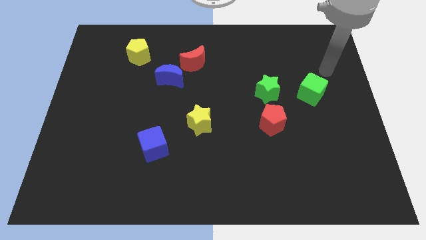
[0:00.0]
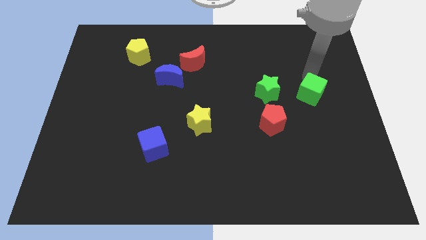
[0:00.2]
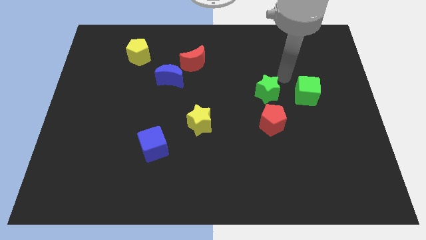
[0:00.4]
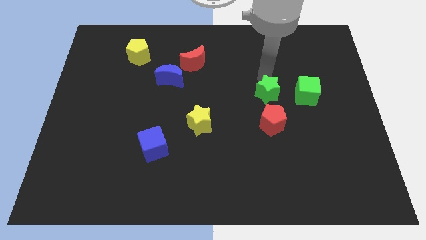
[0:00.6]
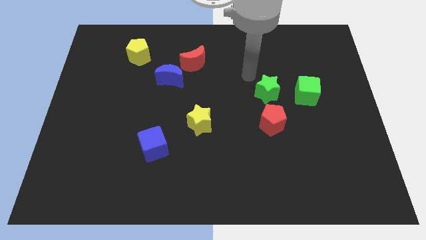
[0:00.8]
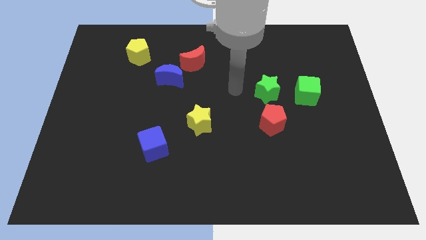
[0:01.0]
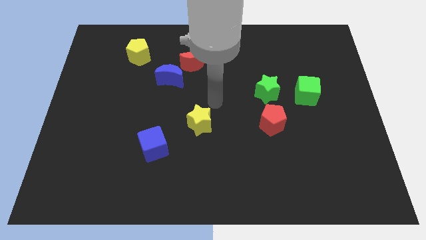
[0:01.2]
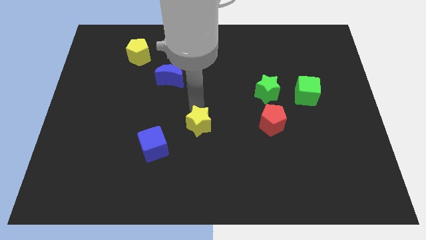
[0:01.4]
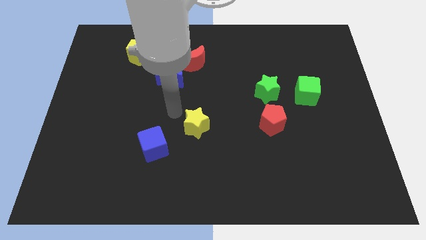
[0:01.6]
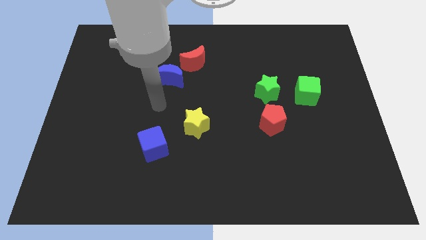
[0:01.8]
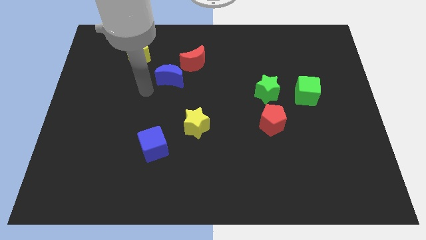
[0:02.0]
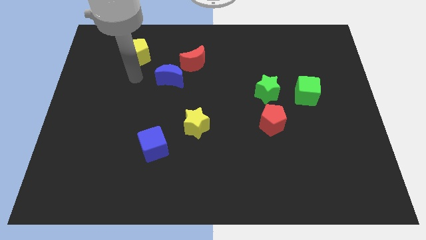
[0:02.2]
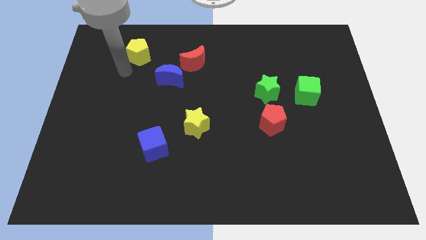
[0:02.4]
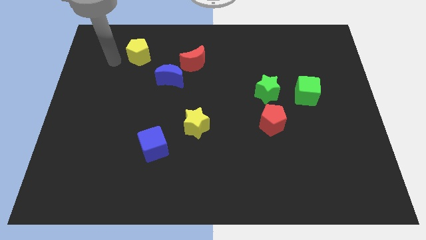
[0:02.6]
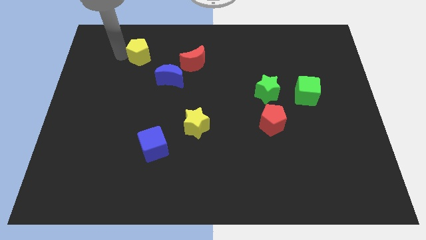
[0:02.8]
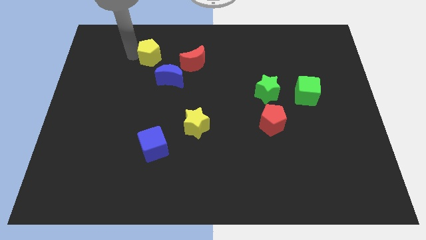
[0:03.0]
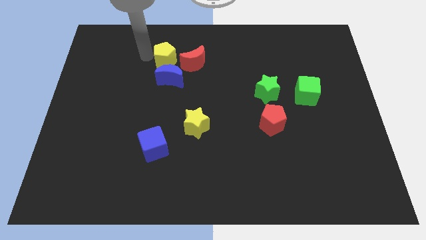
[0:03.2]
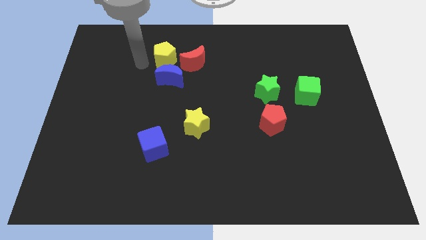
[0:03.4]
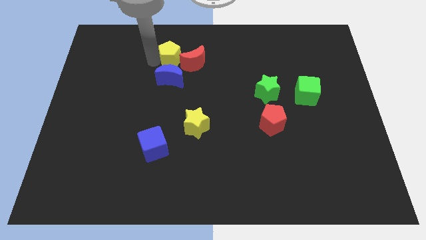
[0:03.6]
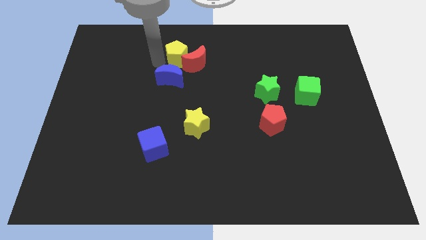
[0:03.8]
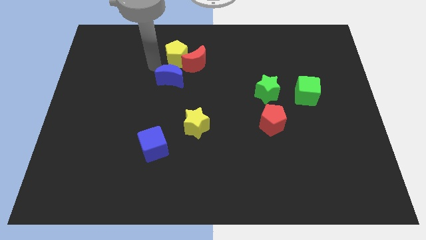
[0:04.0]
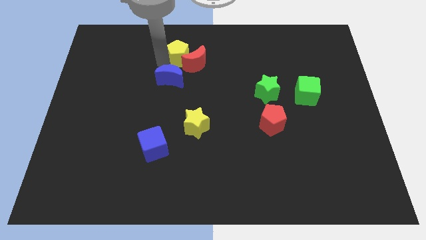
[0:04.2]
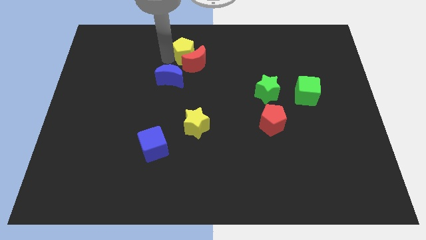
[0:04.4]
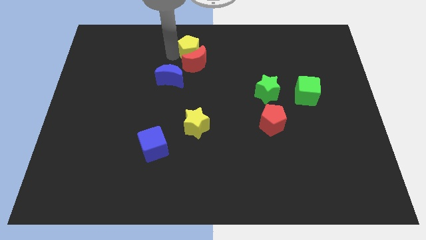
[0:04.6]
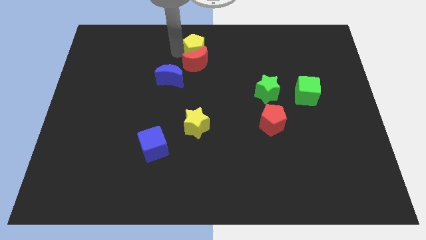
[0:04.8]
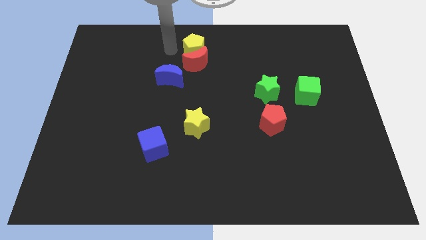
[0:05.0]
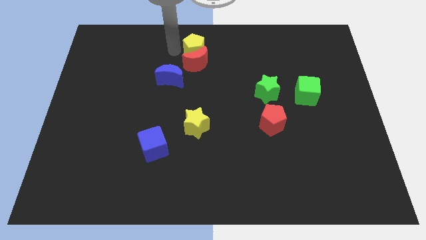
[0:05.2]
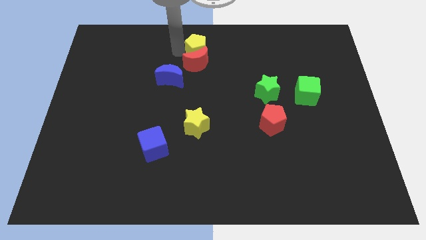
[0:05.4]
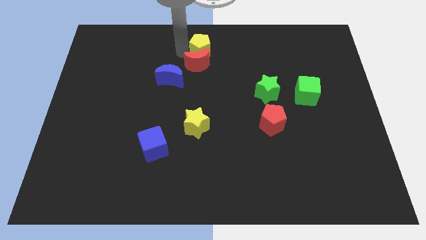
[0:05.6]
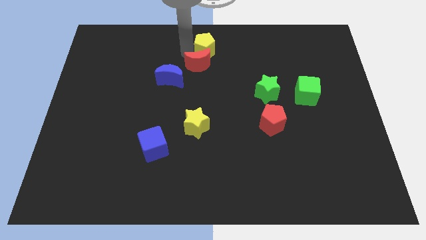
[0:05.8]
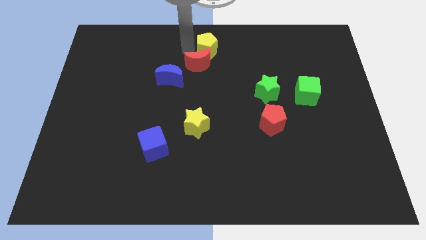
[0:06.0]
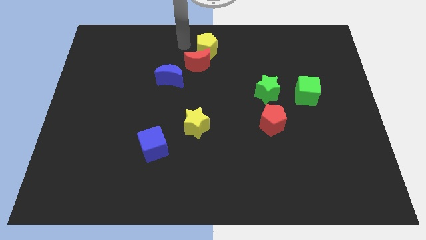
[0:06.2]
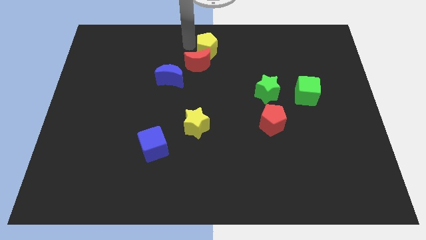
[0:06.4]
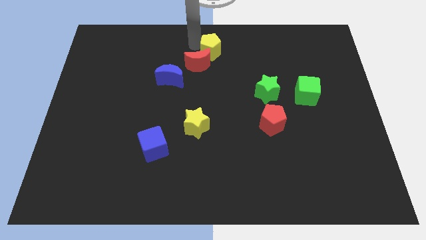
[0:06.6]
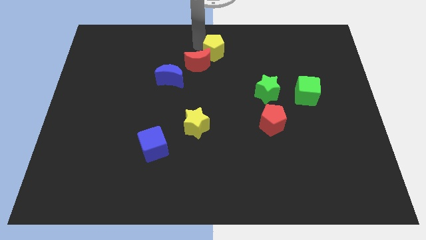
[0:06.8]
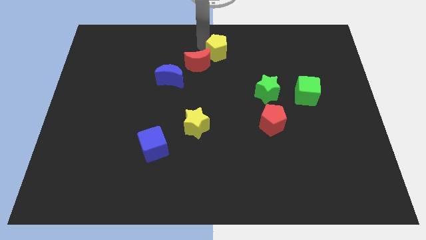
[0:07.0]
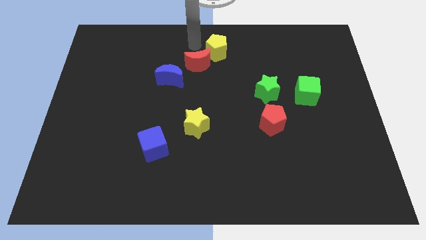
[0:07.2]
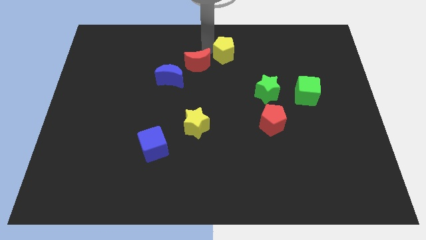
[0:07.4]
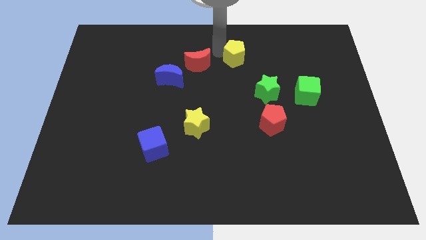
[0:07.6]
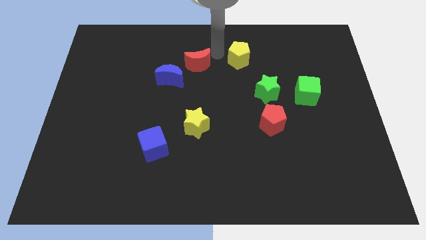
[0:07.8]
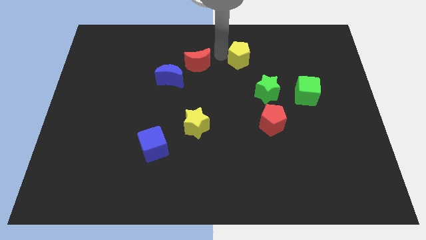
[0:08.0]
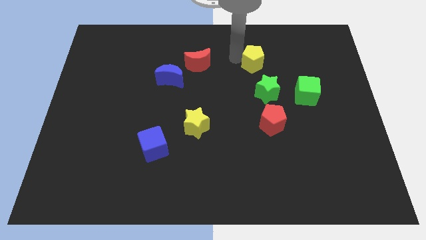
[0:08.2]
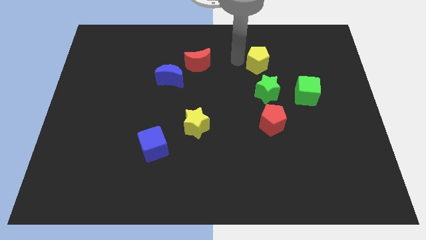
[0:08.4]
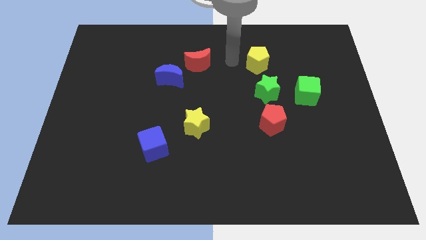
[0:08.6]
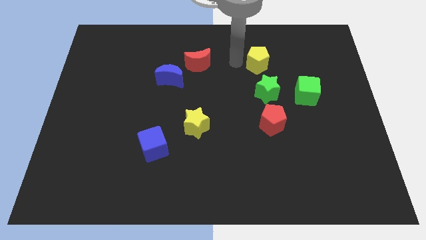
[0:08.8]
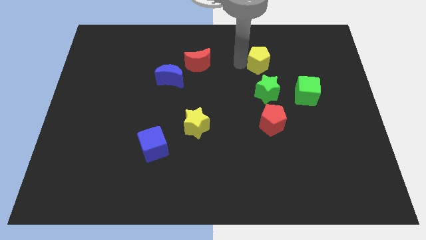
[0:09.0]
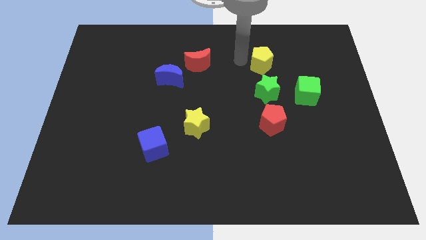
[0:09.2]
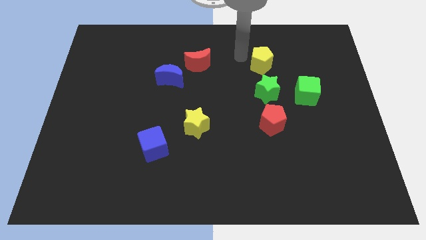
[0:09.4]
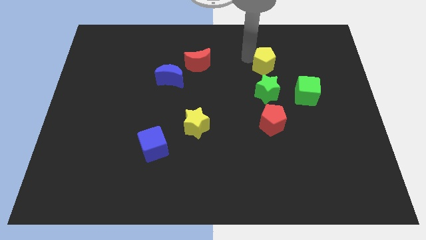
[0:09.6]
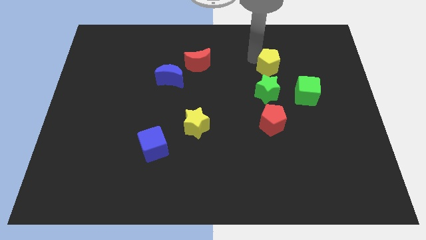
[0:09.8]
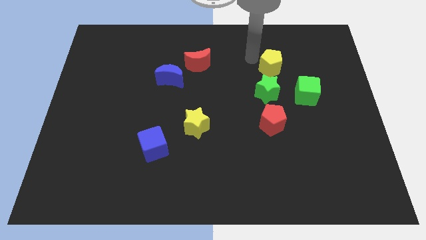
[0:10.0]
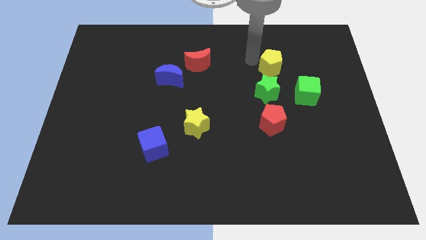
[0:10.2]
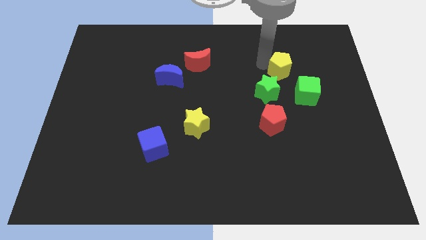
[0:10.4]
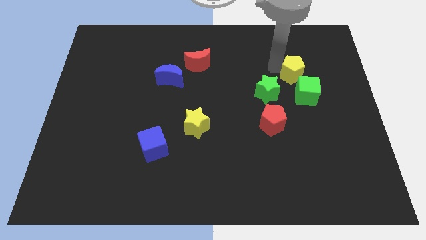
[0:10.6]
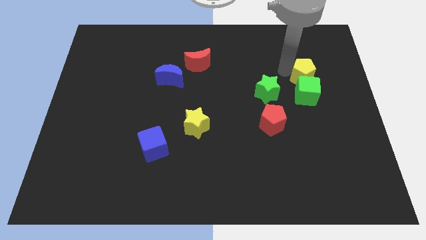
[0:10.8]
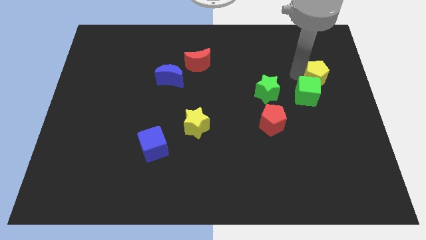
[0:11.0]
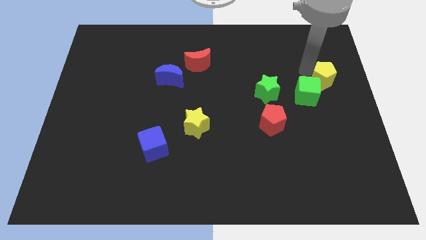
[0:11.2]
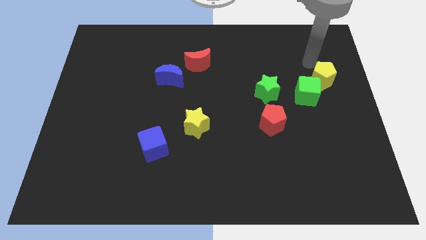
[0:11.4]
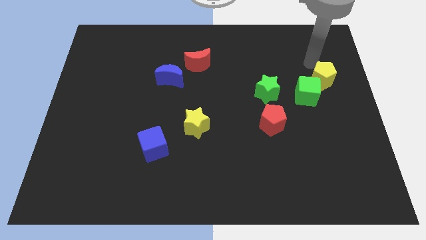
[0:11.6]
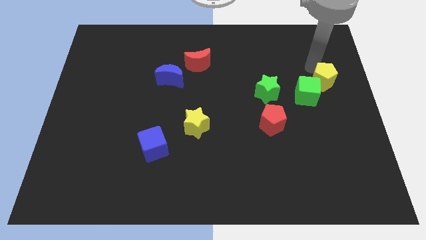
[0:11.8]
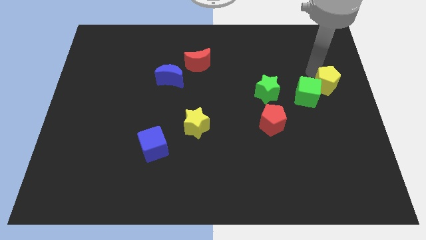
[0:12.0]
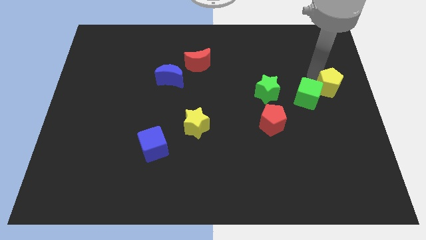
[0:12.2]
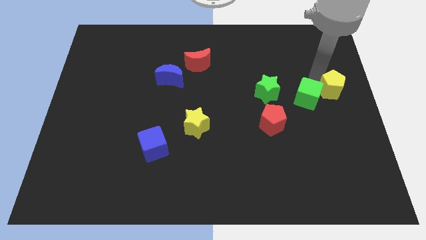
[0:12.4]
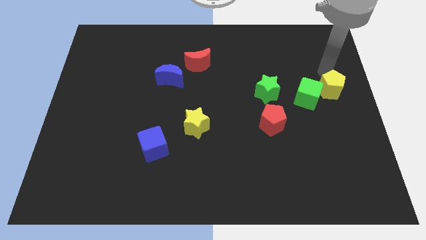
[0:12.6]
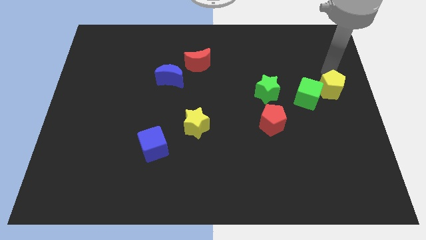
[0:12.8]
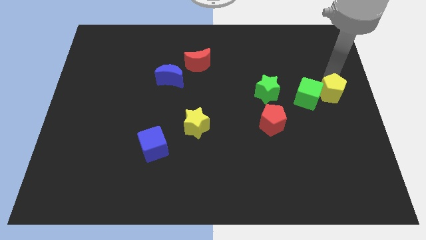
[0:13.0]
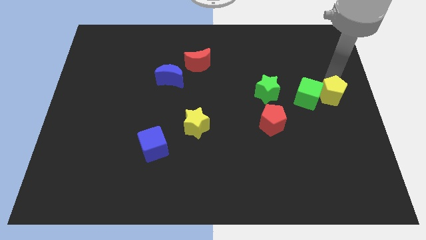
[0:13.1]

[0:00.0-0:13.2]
push the yellow pentagon to the bottom right side of the green cube

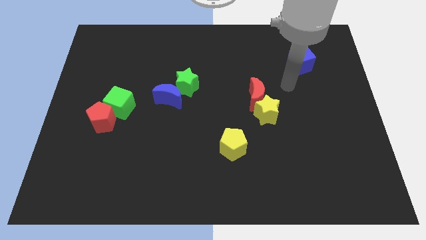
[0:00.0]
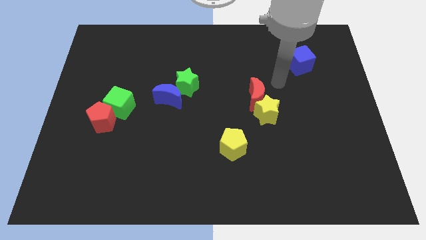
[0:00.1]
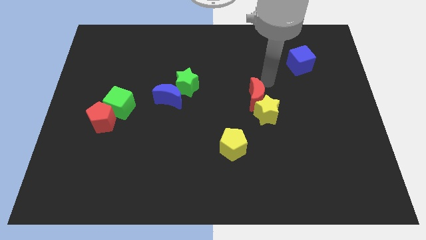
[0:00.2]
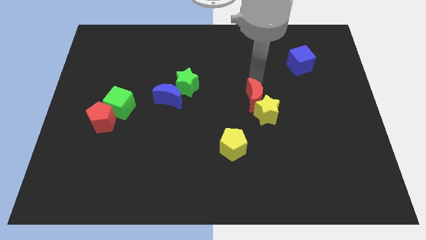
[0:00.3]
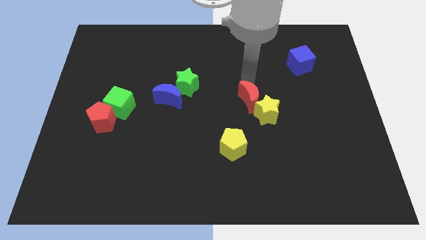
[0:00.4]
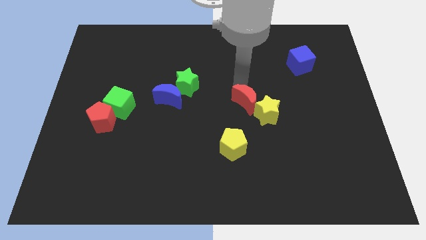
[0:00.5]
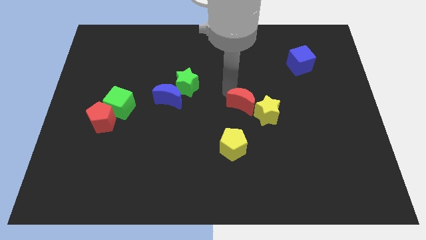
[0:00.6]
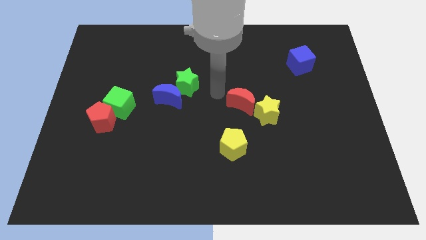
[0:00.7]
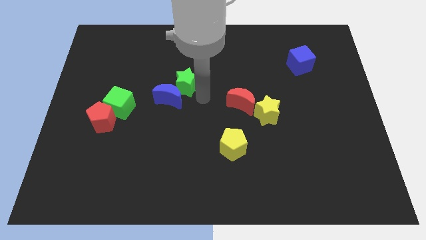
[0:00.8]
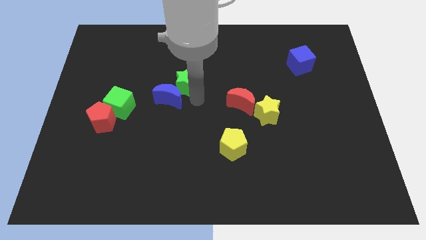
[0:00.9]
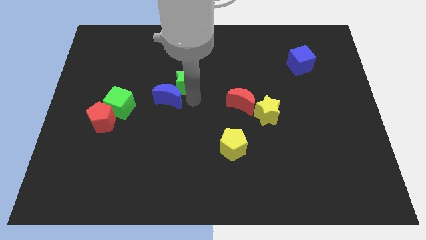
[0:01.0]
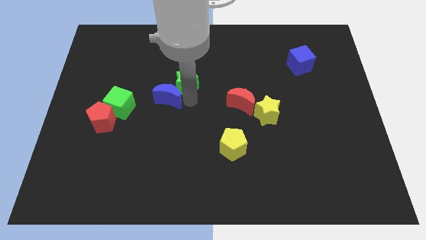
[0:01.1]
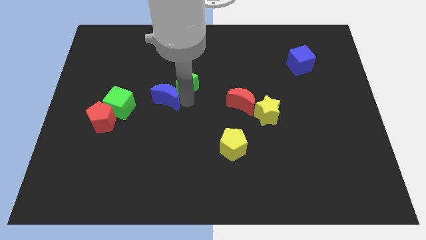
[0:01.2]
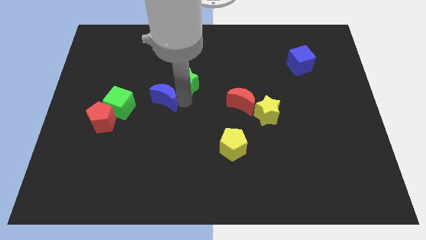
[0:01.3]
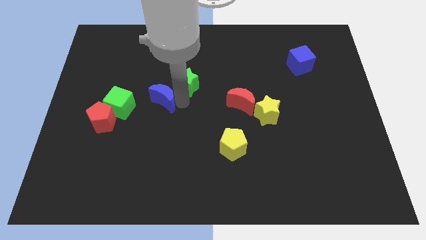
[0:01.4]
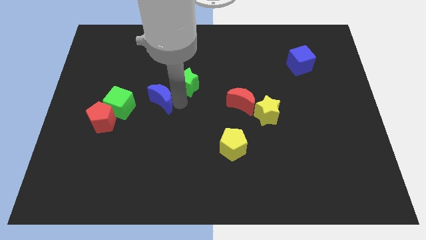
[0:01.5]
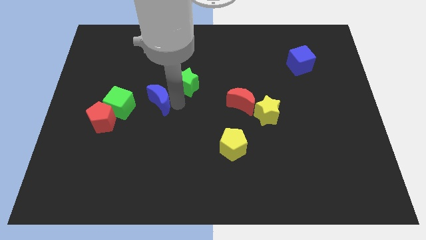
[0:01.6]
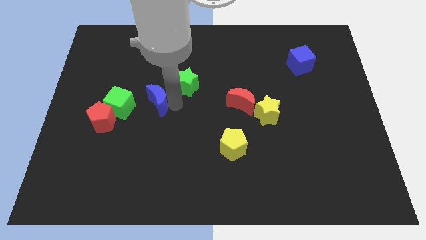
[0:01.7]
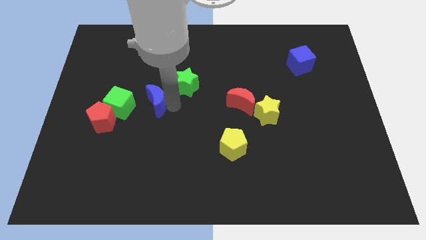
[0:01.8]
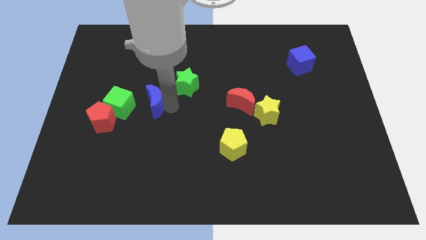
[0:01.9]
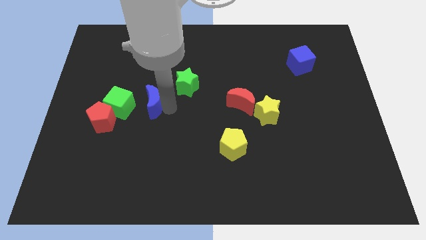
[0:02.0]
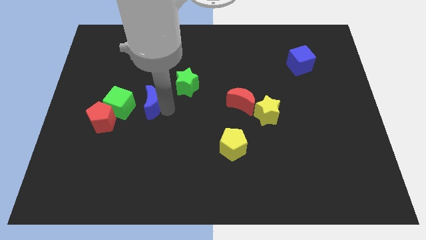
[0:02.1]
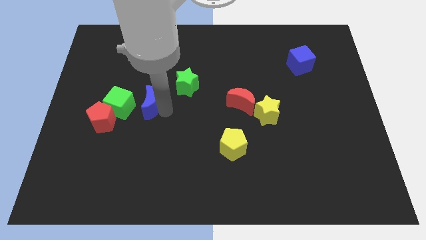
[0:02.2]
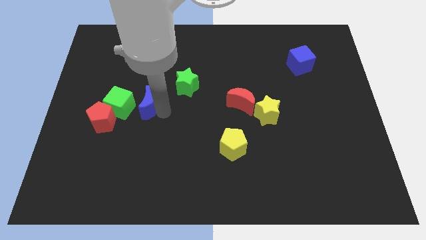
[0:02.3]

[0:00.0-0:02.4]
slide the blue moon diagonally up and to the right of the red pentagon
